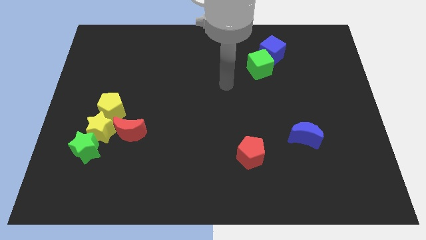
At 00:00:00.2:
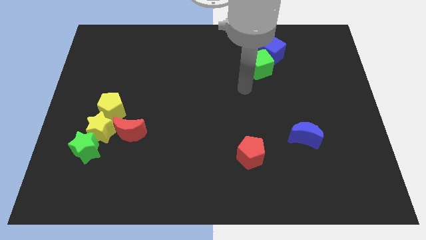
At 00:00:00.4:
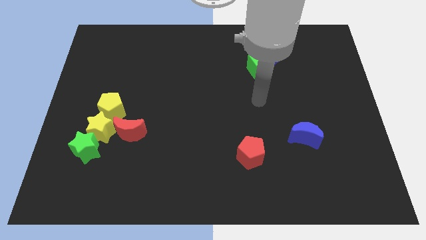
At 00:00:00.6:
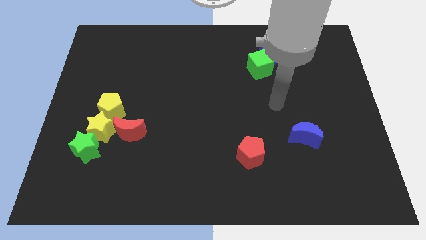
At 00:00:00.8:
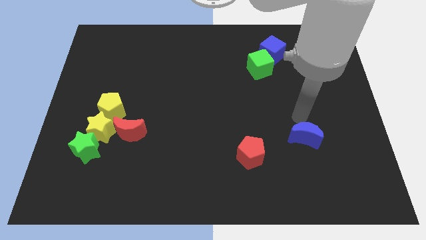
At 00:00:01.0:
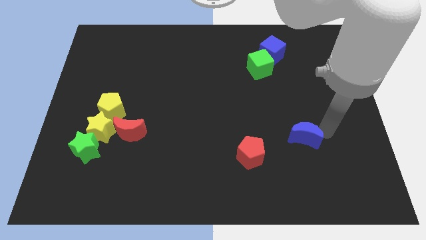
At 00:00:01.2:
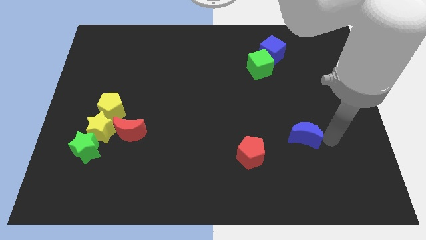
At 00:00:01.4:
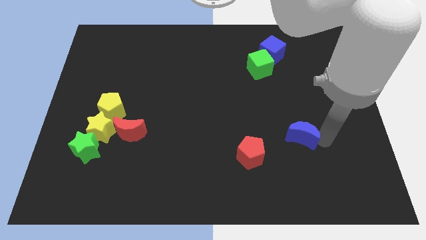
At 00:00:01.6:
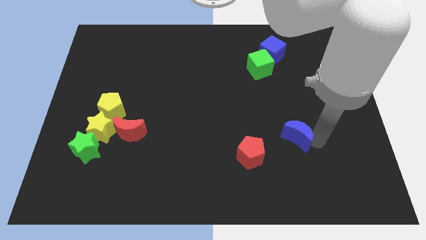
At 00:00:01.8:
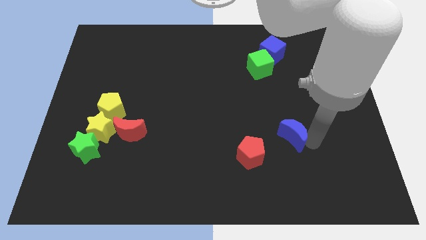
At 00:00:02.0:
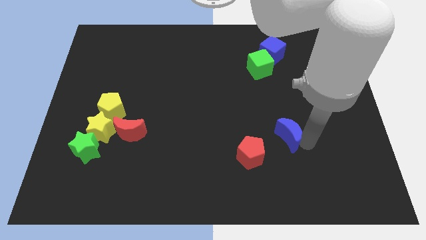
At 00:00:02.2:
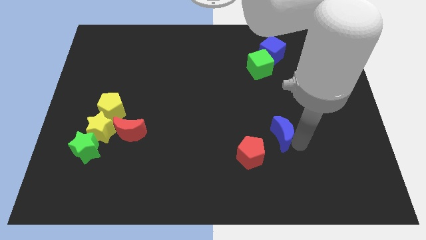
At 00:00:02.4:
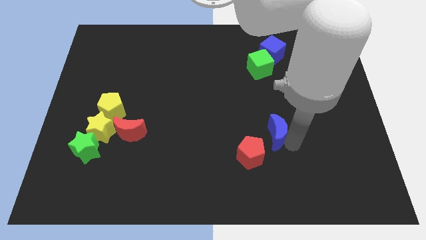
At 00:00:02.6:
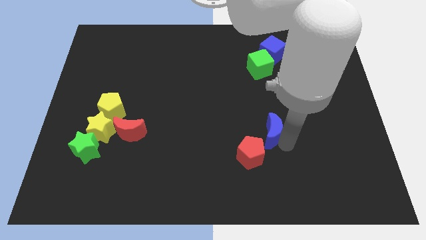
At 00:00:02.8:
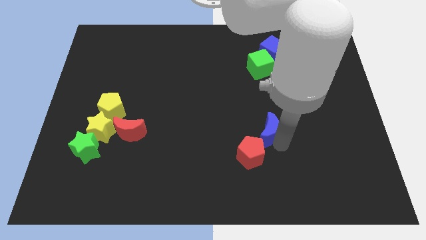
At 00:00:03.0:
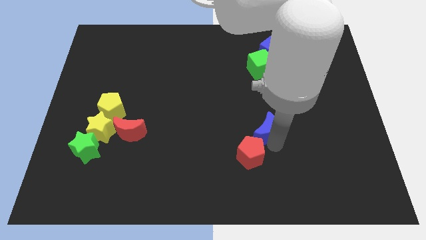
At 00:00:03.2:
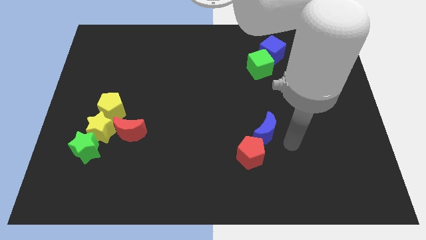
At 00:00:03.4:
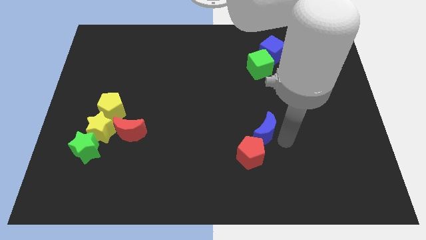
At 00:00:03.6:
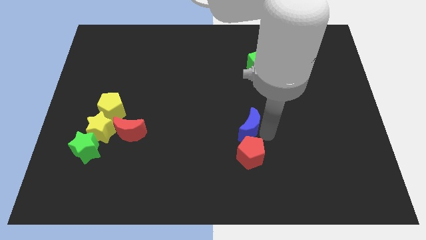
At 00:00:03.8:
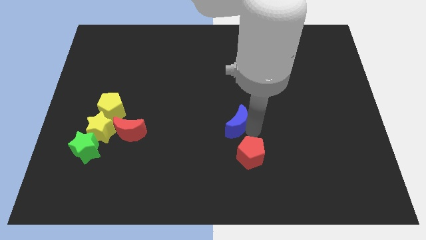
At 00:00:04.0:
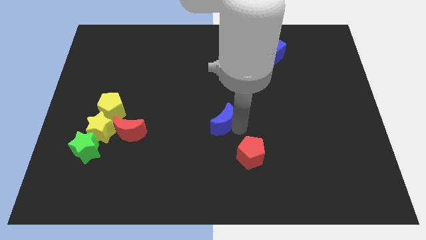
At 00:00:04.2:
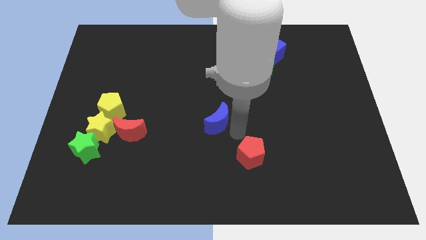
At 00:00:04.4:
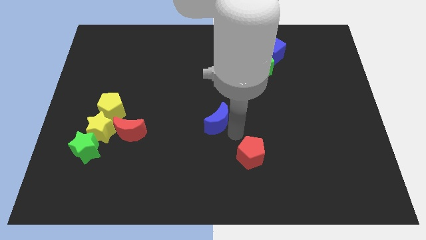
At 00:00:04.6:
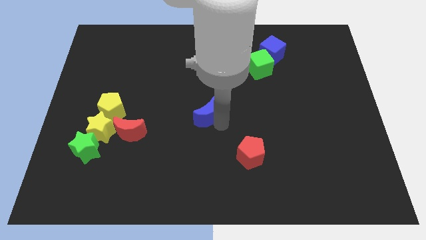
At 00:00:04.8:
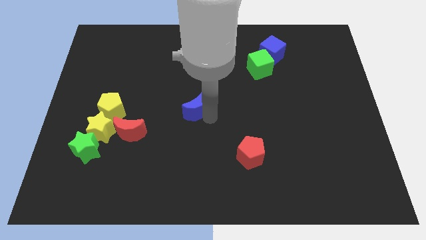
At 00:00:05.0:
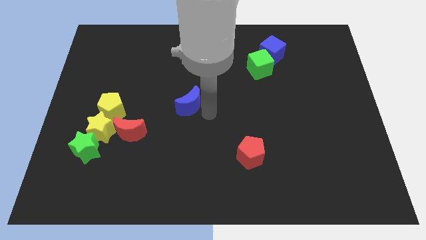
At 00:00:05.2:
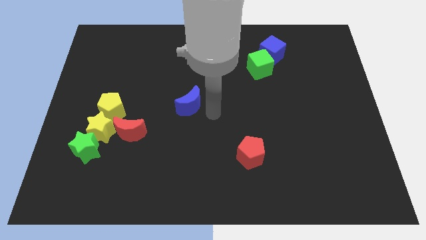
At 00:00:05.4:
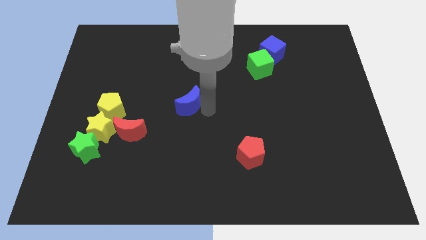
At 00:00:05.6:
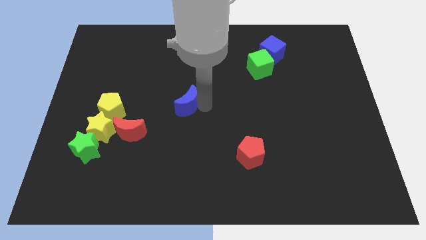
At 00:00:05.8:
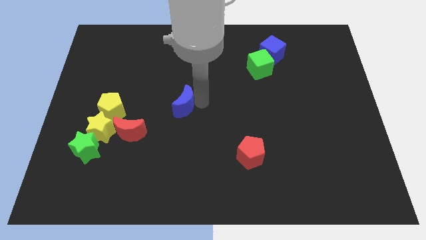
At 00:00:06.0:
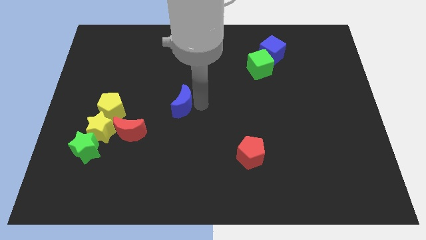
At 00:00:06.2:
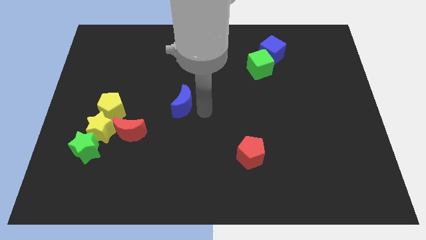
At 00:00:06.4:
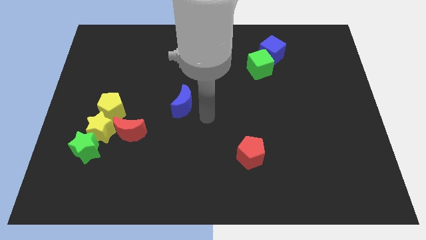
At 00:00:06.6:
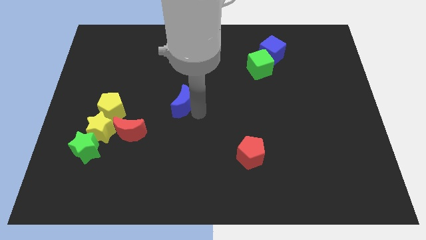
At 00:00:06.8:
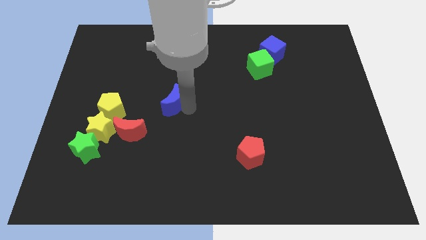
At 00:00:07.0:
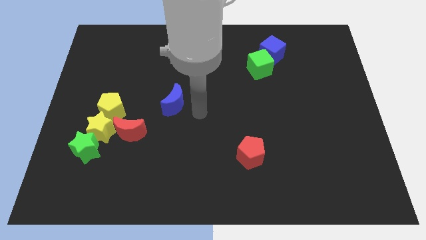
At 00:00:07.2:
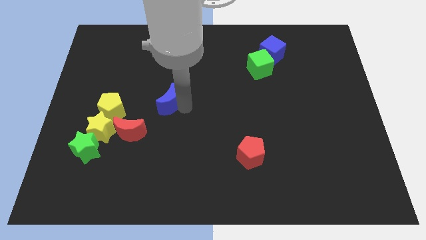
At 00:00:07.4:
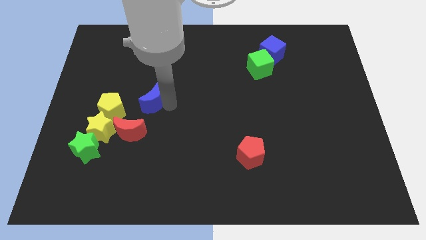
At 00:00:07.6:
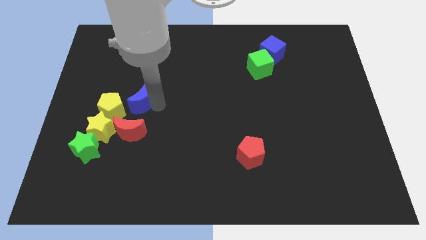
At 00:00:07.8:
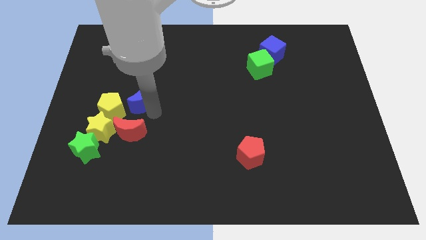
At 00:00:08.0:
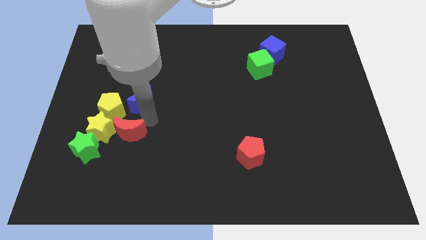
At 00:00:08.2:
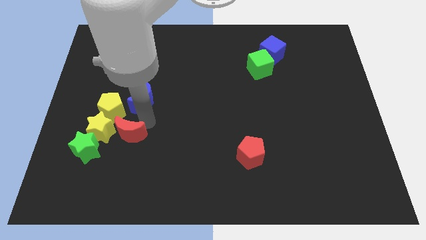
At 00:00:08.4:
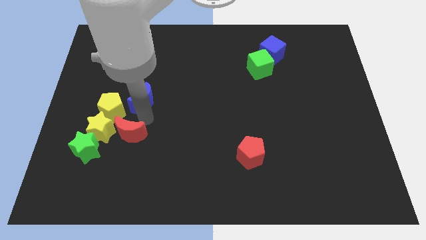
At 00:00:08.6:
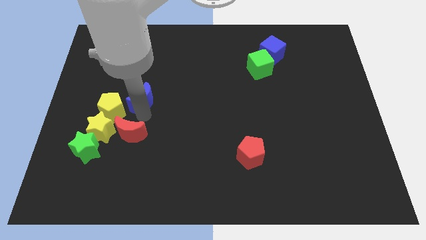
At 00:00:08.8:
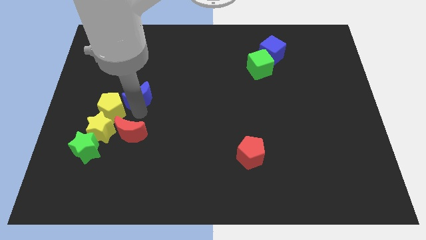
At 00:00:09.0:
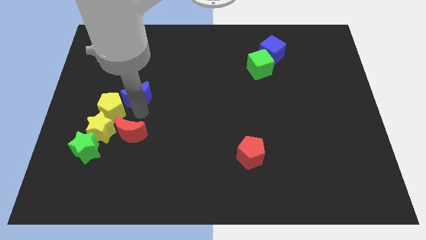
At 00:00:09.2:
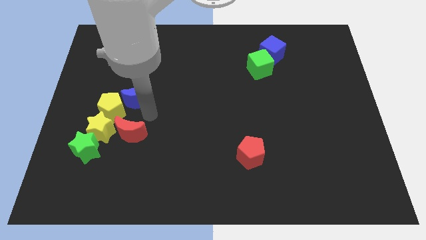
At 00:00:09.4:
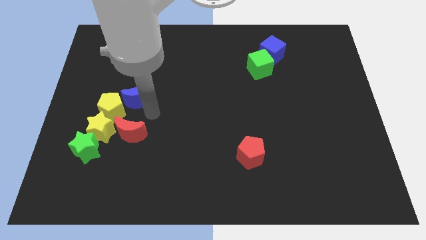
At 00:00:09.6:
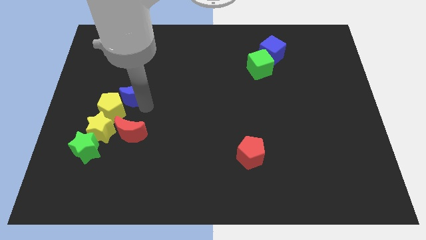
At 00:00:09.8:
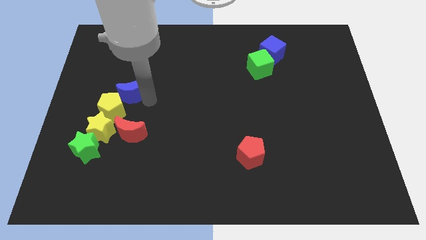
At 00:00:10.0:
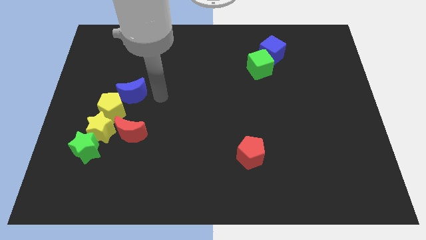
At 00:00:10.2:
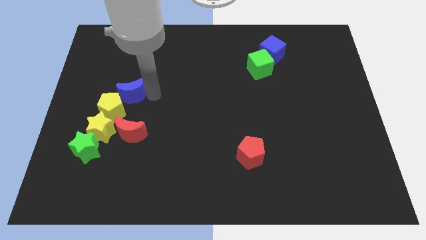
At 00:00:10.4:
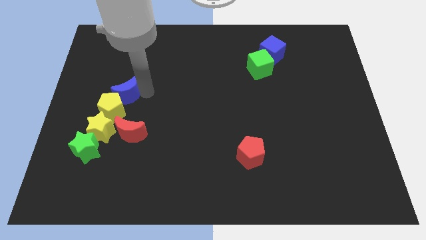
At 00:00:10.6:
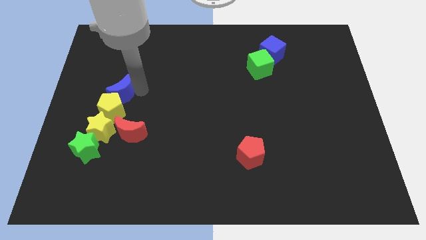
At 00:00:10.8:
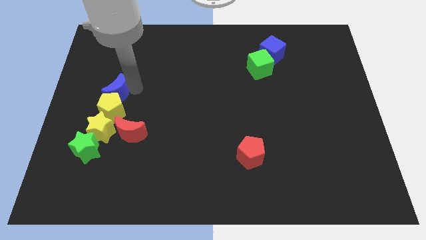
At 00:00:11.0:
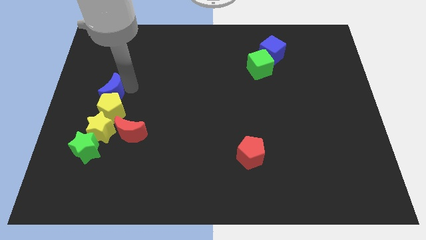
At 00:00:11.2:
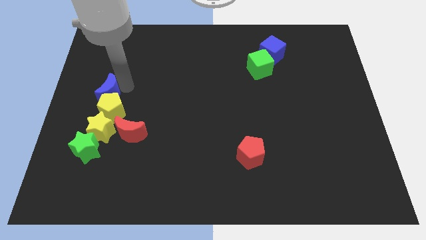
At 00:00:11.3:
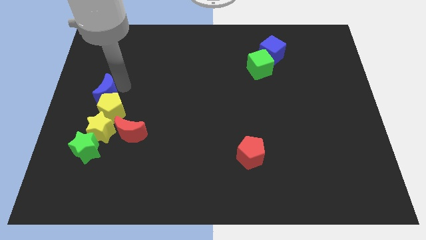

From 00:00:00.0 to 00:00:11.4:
put the blue moon to the left side
